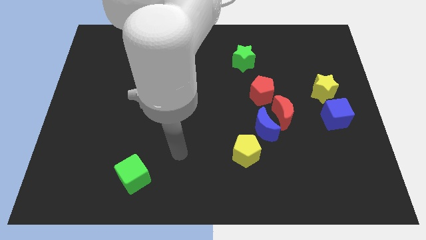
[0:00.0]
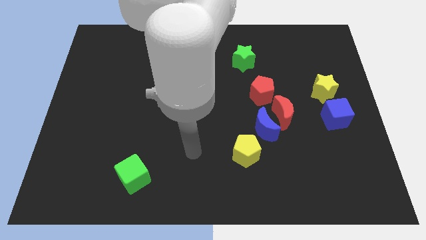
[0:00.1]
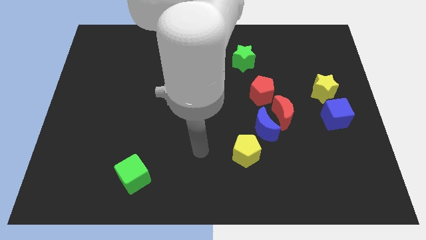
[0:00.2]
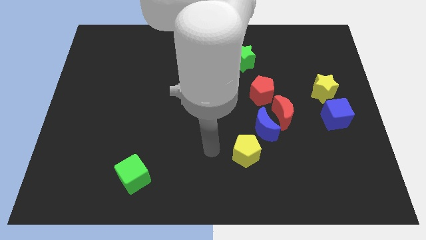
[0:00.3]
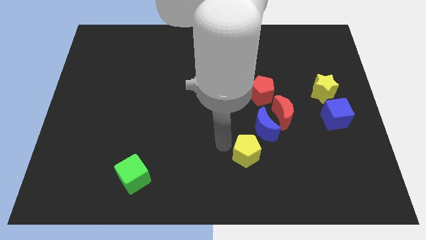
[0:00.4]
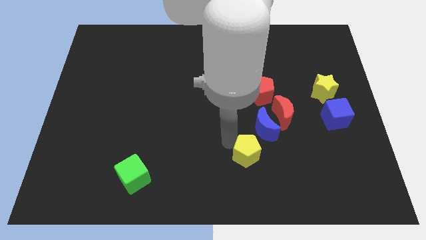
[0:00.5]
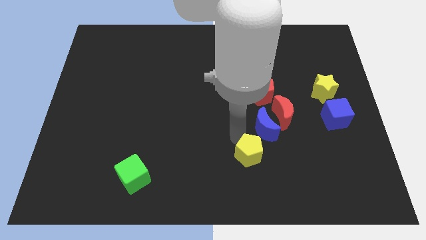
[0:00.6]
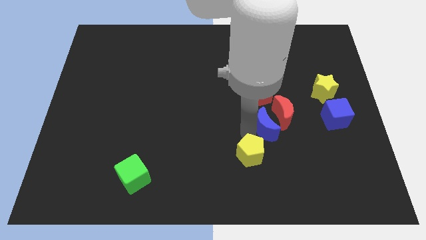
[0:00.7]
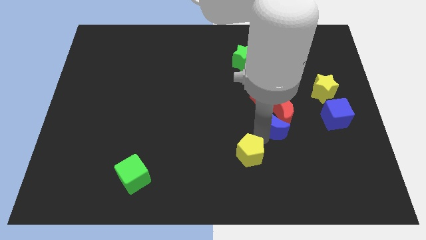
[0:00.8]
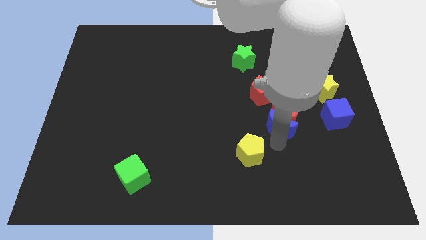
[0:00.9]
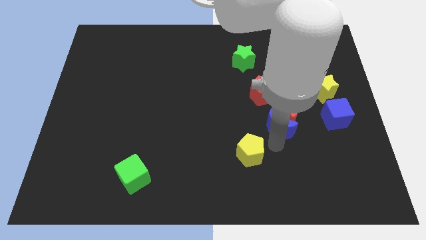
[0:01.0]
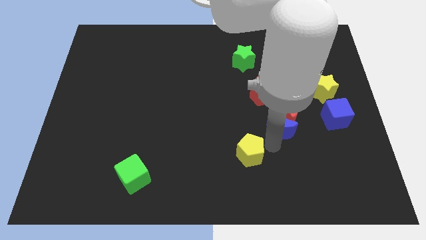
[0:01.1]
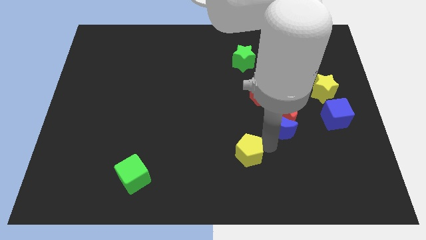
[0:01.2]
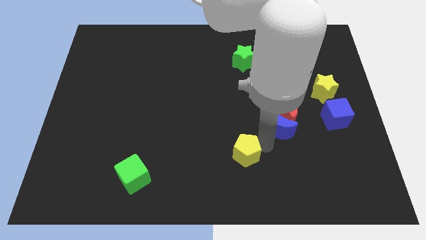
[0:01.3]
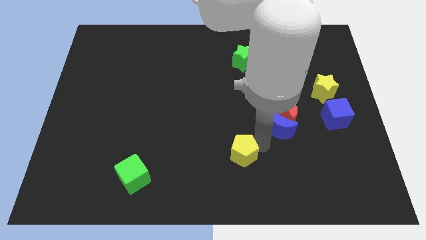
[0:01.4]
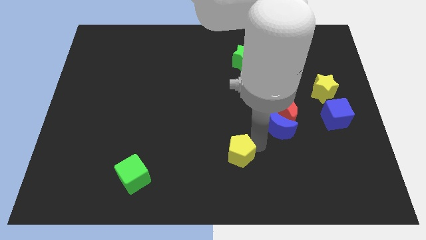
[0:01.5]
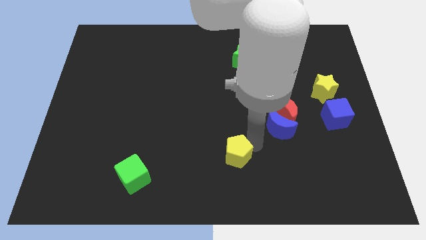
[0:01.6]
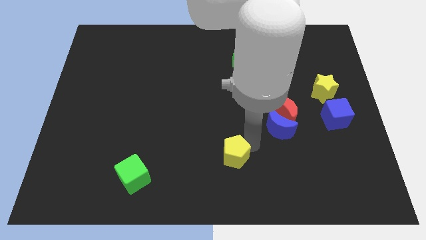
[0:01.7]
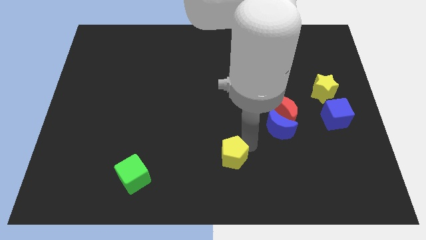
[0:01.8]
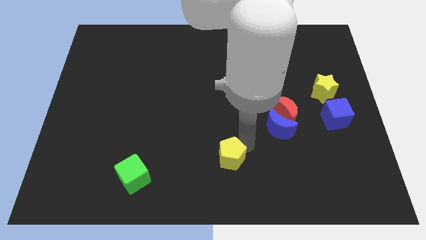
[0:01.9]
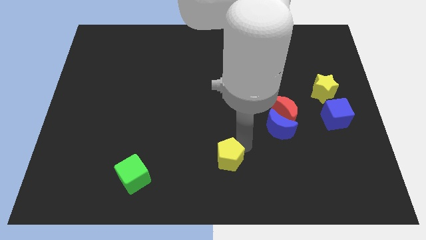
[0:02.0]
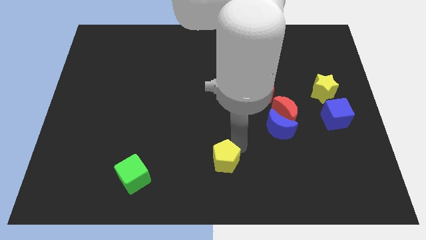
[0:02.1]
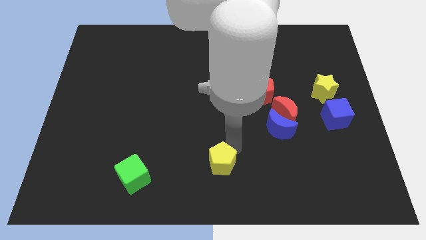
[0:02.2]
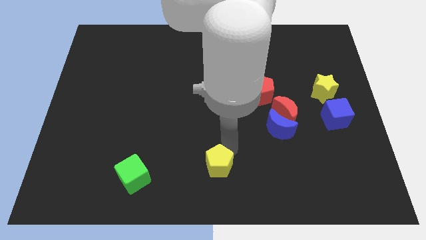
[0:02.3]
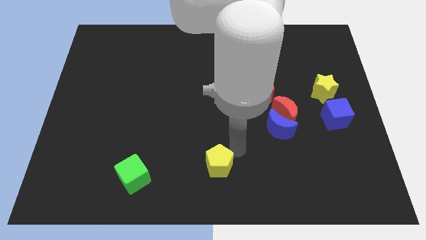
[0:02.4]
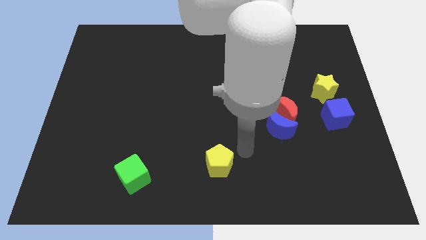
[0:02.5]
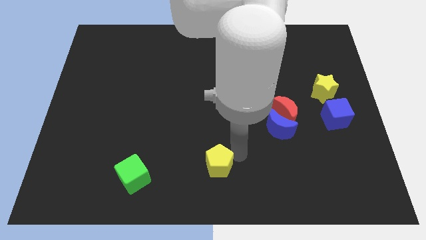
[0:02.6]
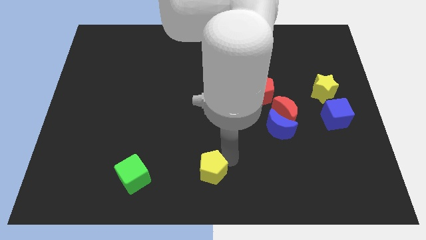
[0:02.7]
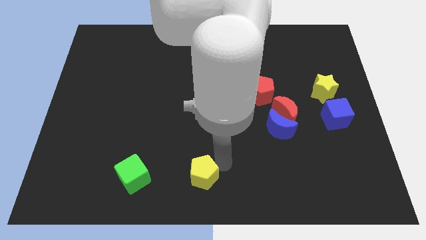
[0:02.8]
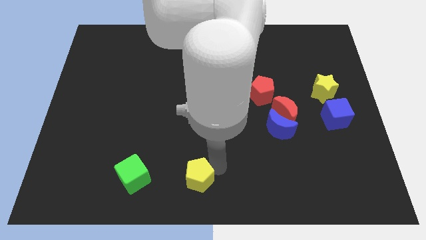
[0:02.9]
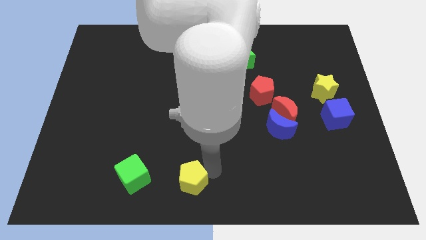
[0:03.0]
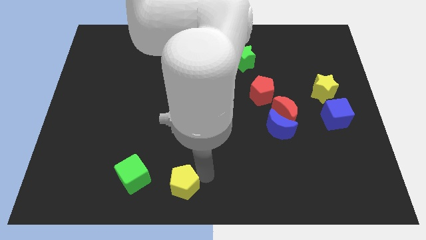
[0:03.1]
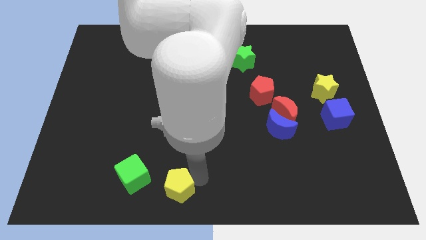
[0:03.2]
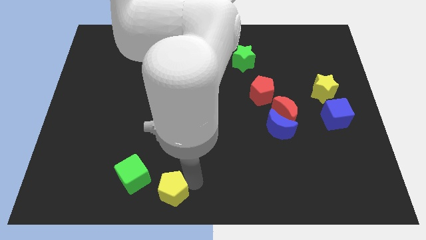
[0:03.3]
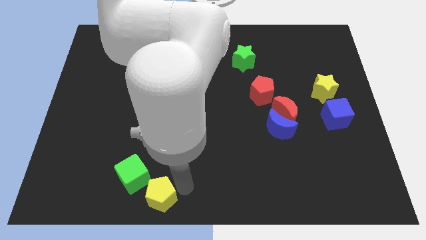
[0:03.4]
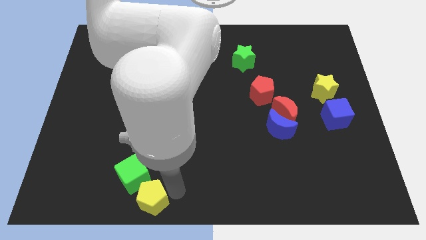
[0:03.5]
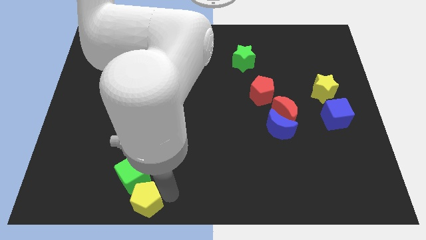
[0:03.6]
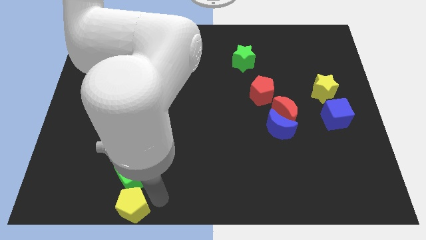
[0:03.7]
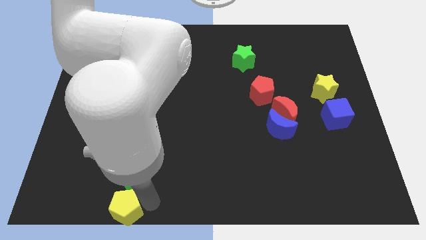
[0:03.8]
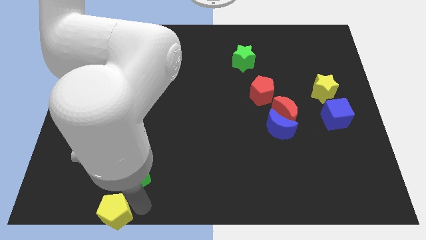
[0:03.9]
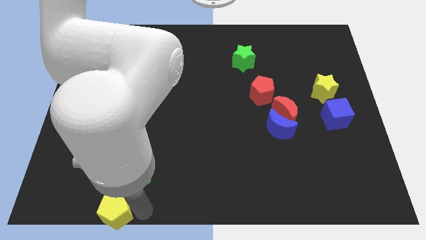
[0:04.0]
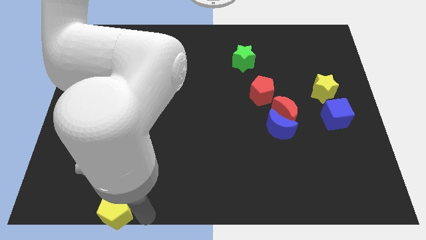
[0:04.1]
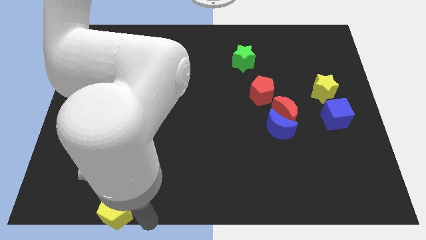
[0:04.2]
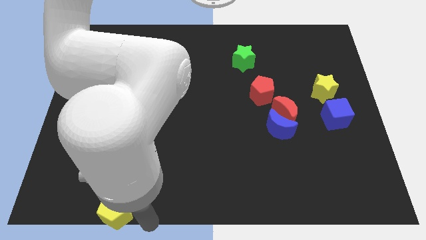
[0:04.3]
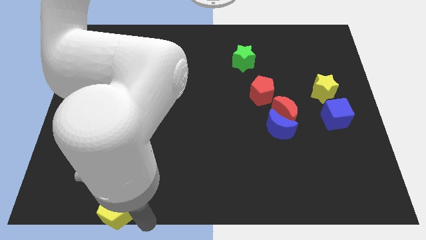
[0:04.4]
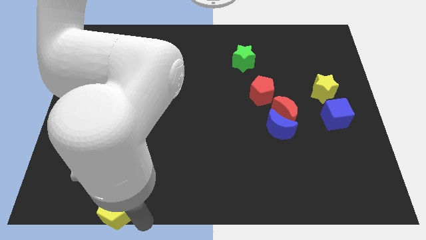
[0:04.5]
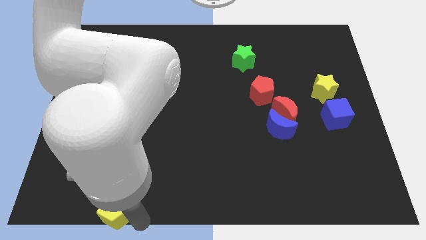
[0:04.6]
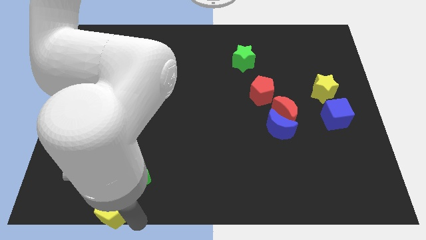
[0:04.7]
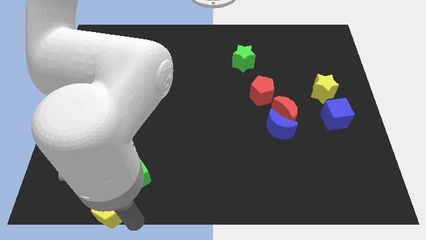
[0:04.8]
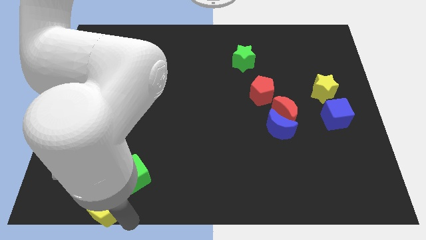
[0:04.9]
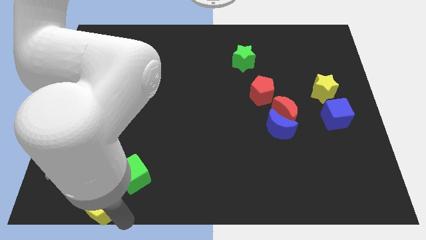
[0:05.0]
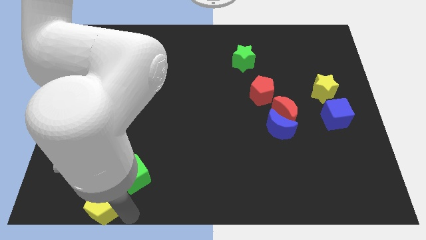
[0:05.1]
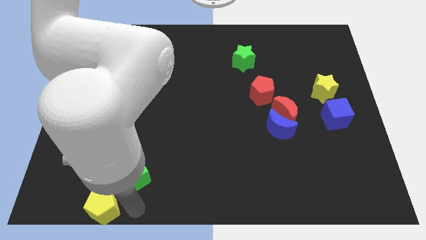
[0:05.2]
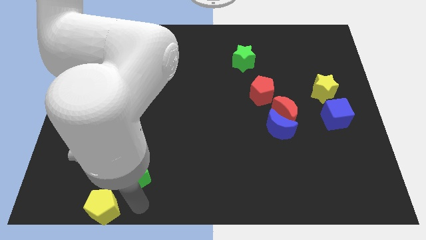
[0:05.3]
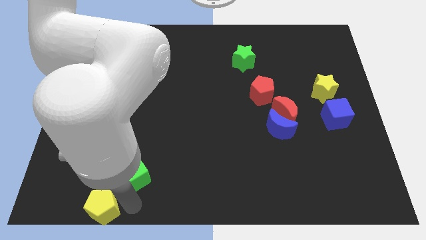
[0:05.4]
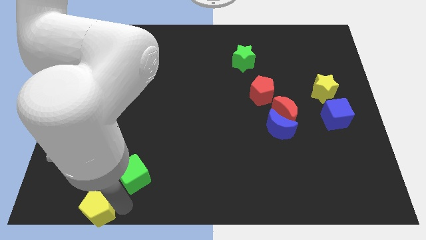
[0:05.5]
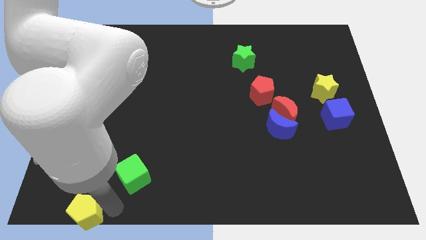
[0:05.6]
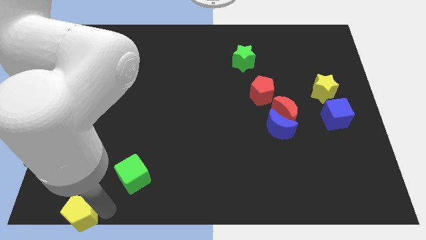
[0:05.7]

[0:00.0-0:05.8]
slide the yellow pentagon to the bottom left corner

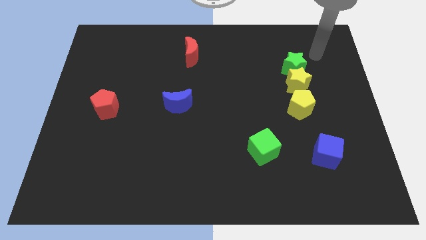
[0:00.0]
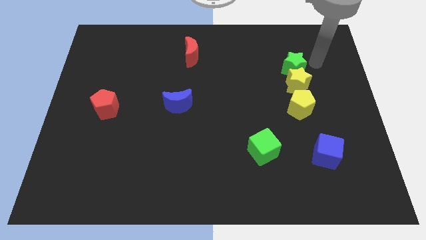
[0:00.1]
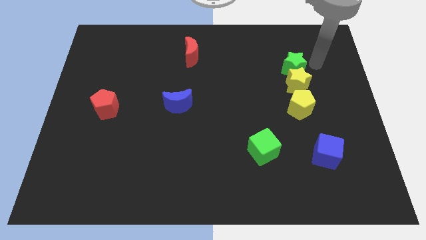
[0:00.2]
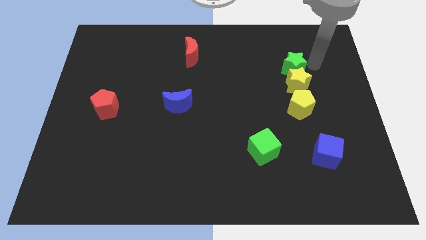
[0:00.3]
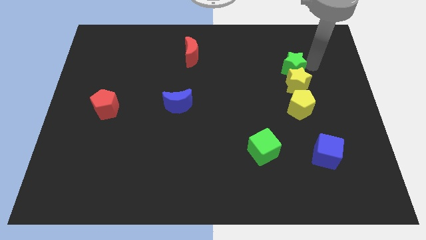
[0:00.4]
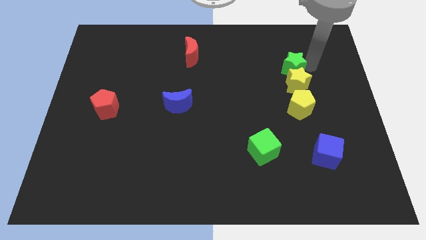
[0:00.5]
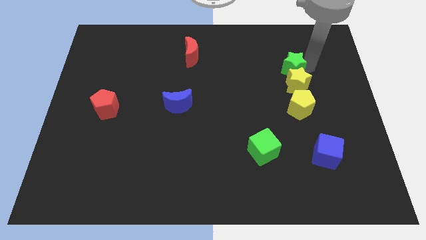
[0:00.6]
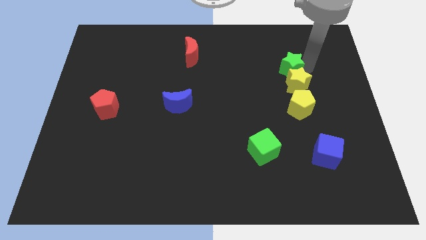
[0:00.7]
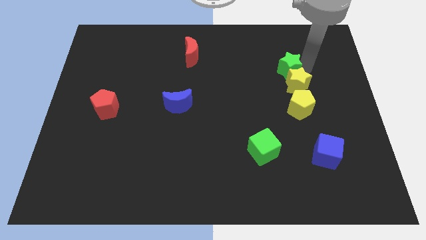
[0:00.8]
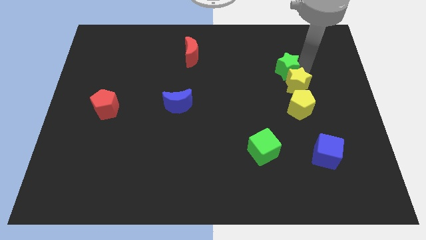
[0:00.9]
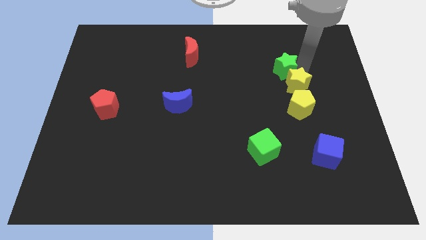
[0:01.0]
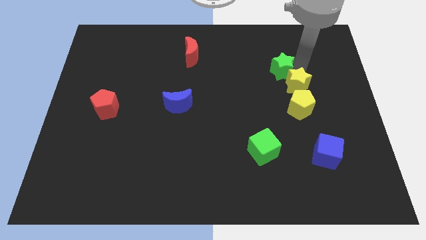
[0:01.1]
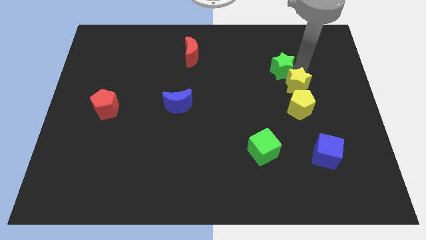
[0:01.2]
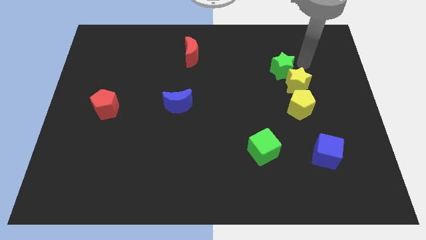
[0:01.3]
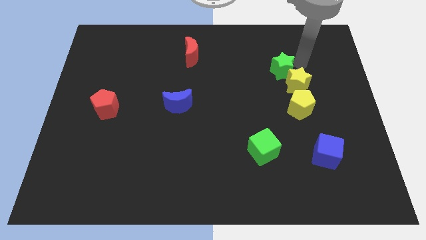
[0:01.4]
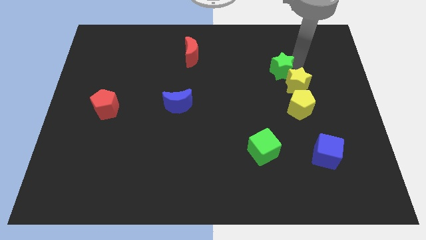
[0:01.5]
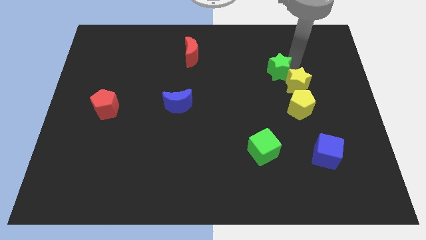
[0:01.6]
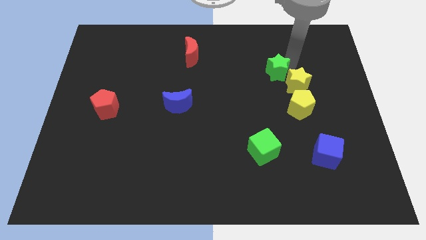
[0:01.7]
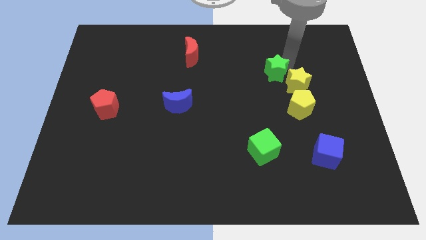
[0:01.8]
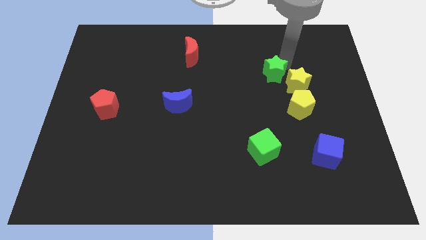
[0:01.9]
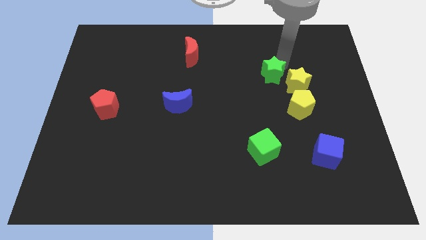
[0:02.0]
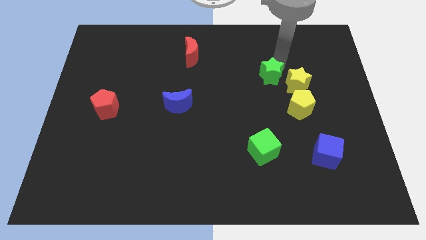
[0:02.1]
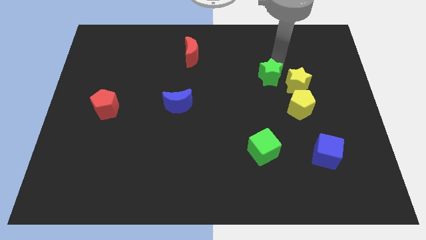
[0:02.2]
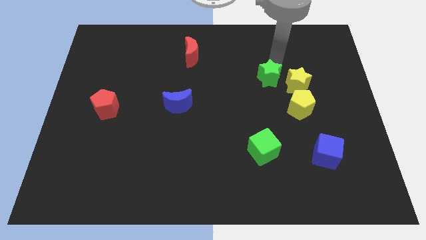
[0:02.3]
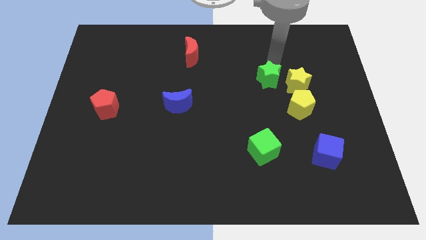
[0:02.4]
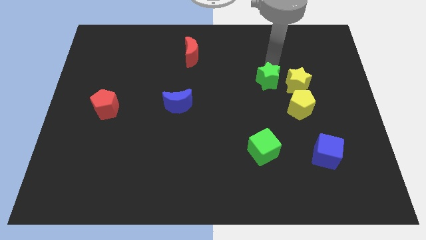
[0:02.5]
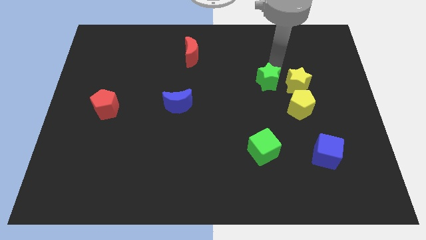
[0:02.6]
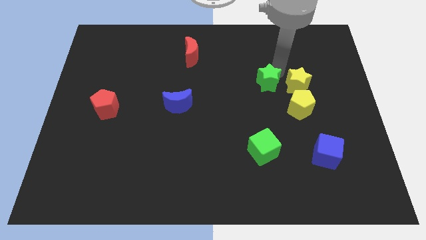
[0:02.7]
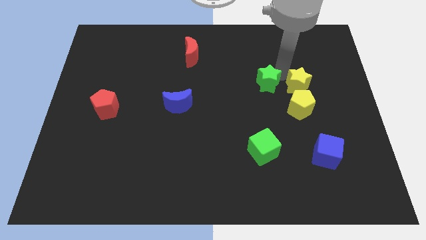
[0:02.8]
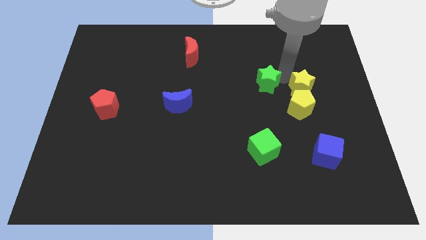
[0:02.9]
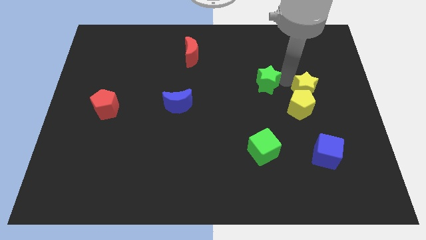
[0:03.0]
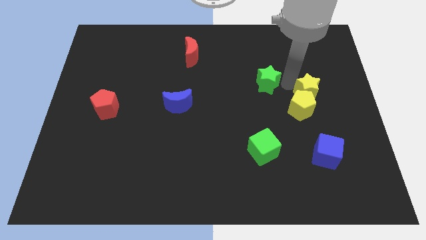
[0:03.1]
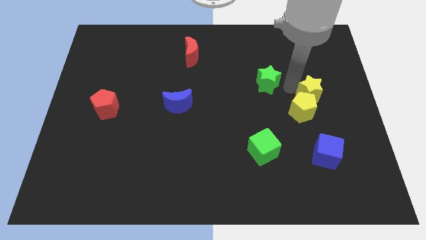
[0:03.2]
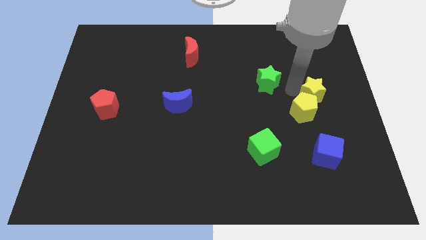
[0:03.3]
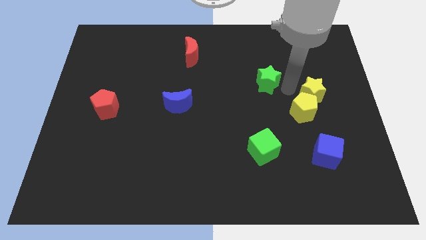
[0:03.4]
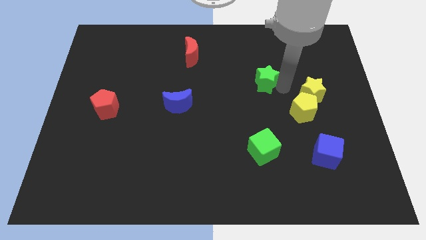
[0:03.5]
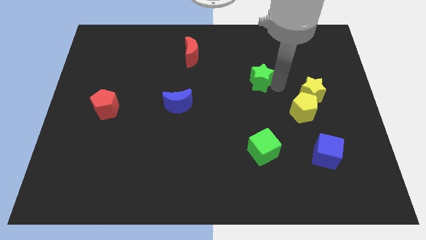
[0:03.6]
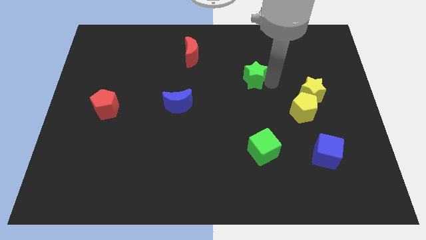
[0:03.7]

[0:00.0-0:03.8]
put the green star to the center of the board
